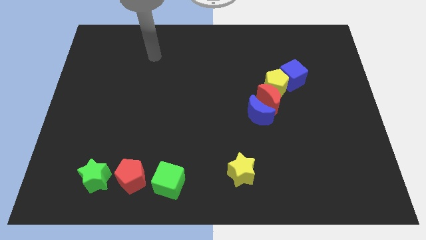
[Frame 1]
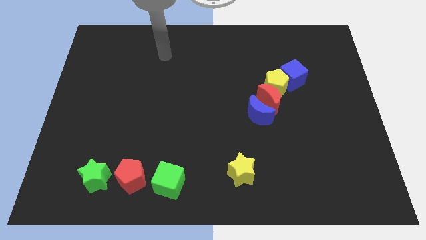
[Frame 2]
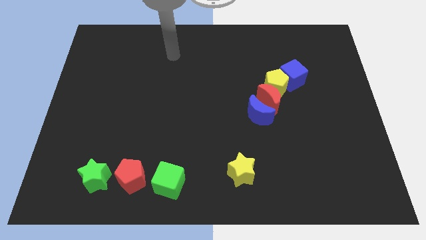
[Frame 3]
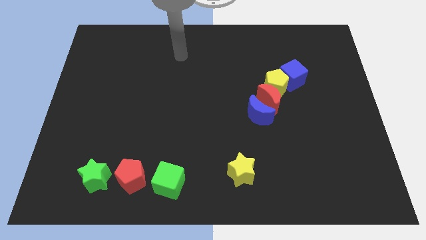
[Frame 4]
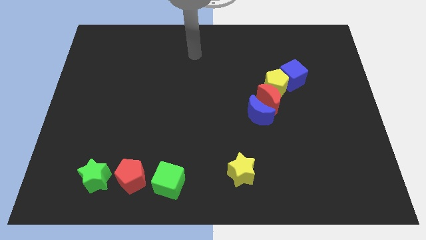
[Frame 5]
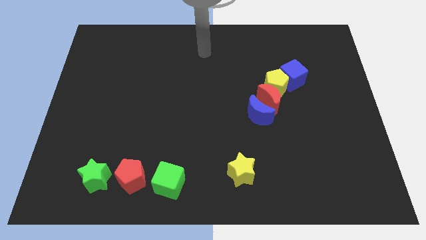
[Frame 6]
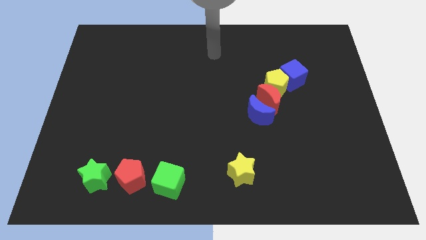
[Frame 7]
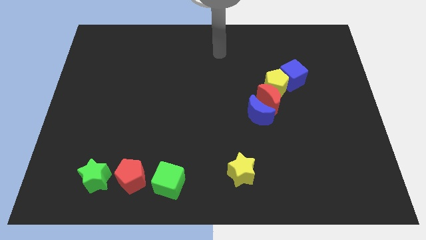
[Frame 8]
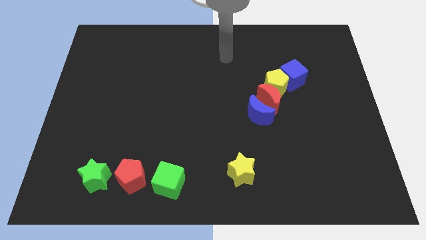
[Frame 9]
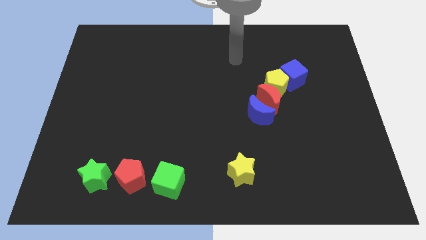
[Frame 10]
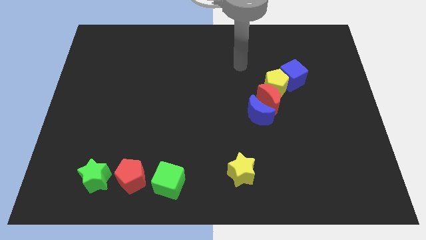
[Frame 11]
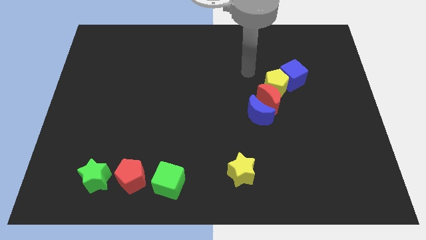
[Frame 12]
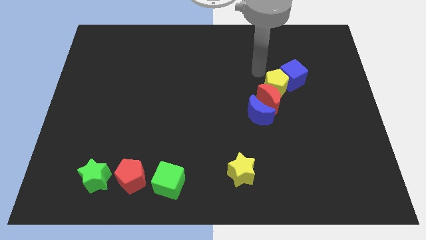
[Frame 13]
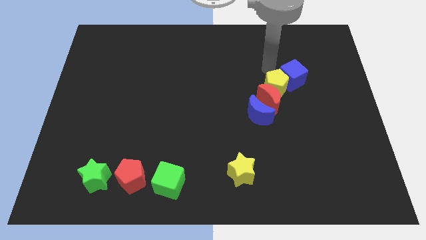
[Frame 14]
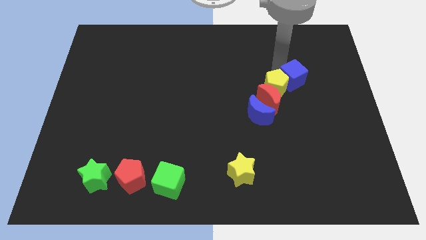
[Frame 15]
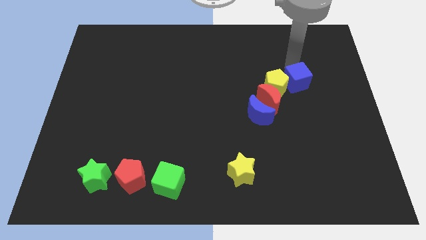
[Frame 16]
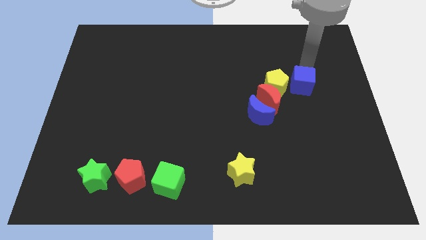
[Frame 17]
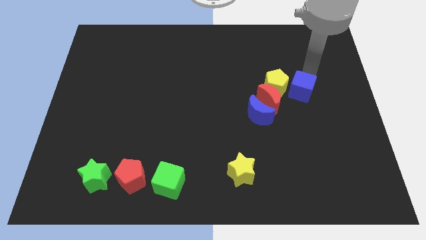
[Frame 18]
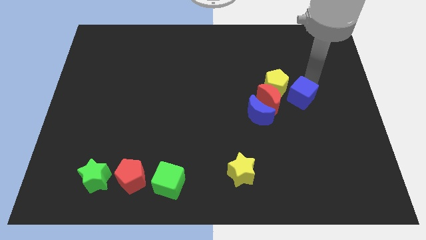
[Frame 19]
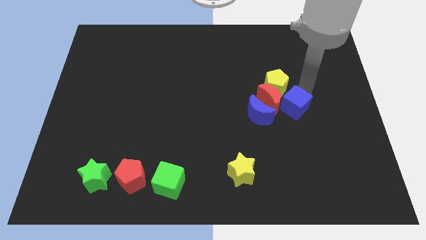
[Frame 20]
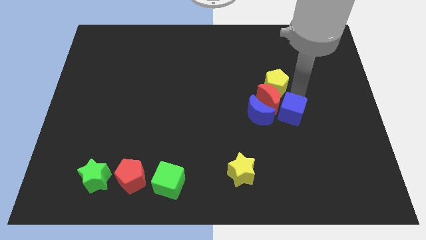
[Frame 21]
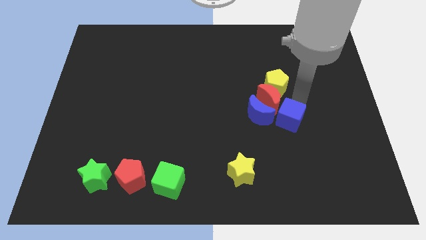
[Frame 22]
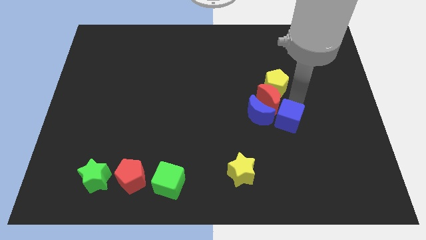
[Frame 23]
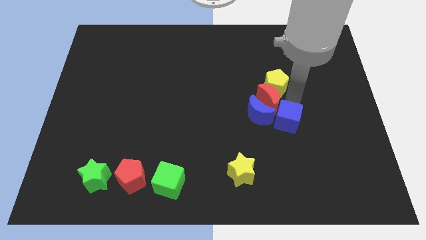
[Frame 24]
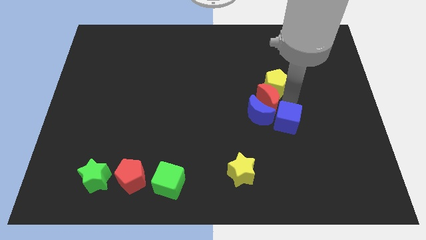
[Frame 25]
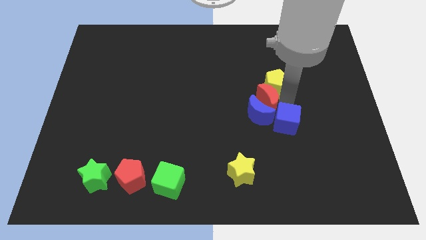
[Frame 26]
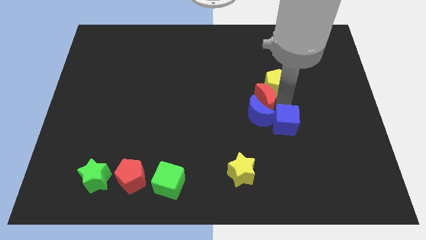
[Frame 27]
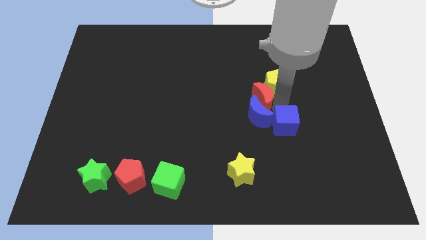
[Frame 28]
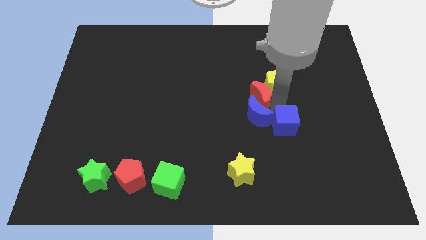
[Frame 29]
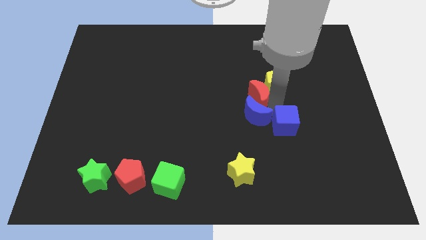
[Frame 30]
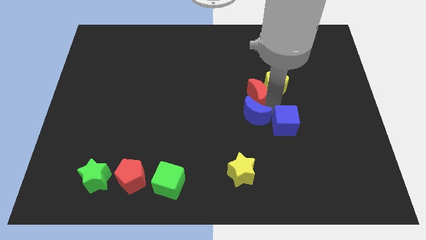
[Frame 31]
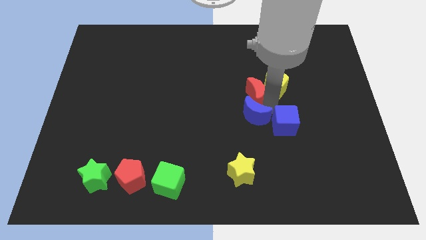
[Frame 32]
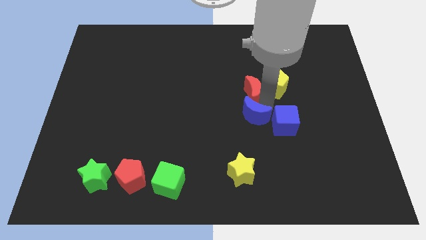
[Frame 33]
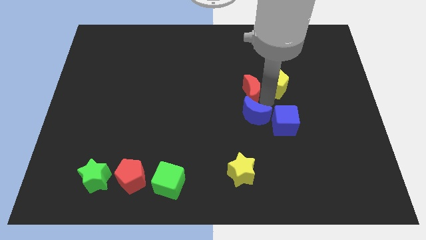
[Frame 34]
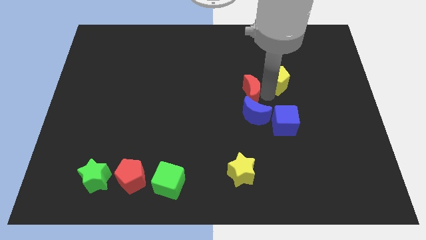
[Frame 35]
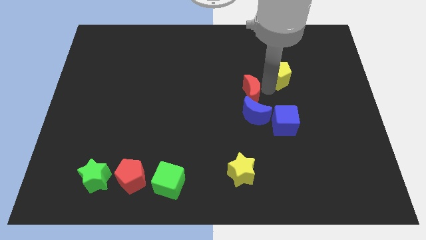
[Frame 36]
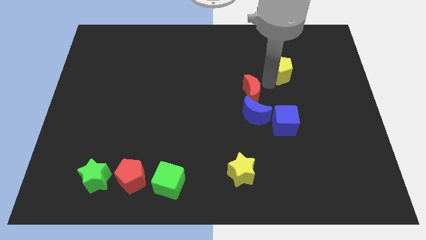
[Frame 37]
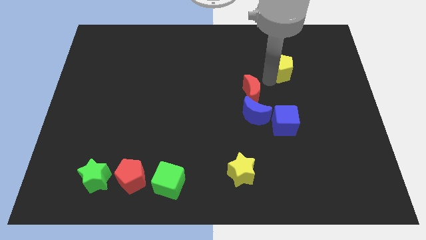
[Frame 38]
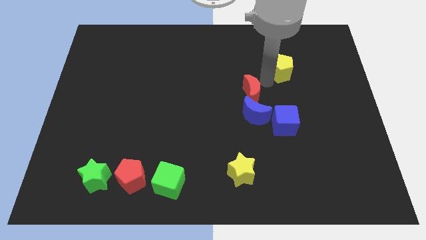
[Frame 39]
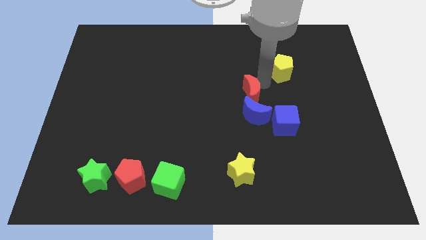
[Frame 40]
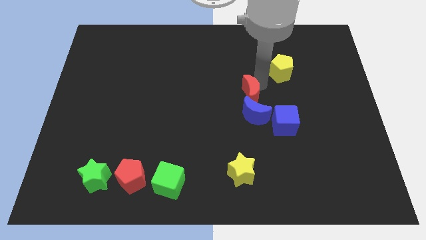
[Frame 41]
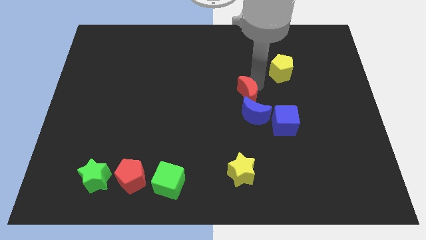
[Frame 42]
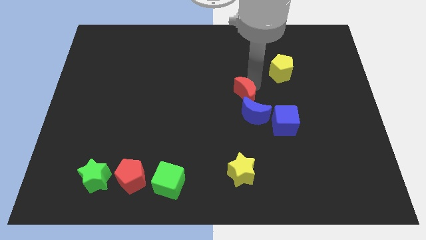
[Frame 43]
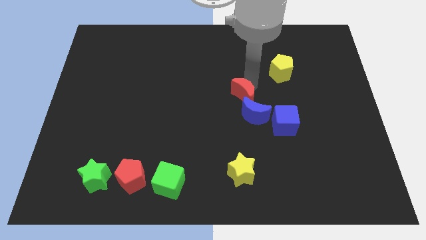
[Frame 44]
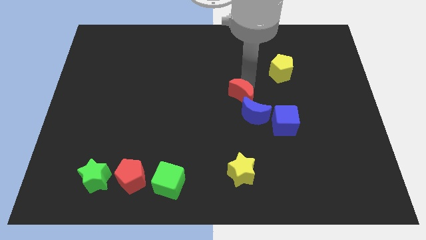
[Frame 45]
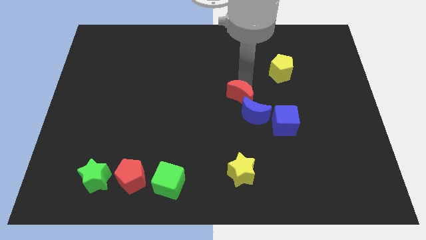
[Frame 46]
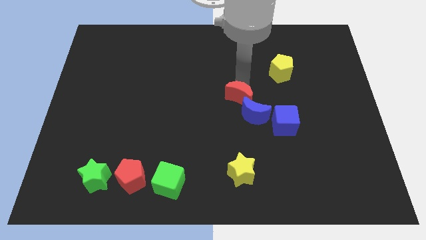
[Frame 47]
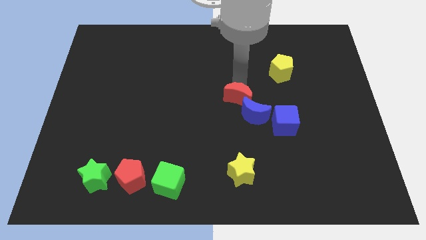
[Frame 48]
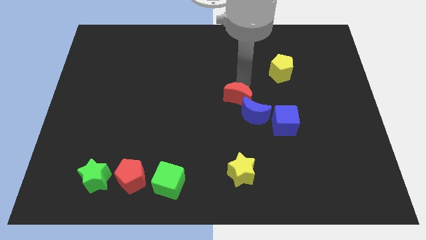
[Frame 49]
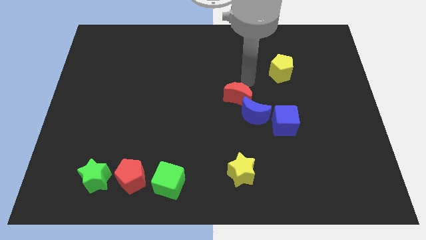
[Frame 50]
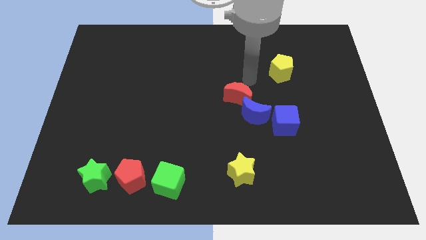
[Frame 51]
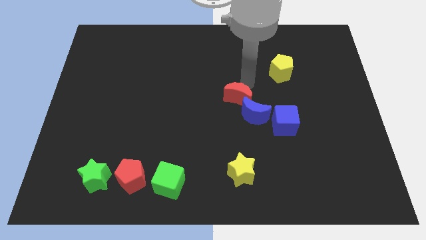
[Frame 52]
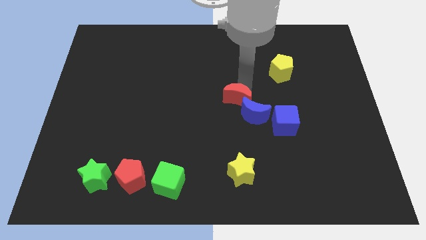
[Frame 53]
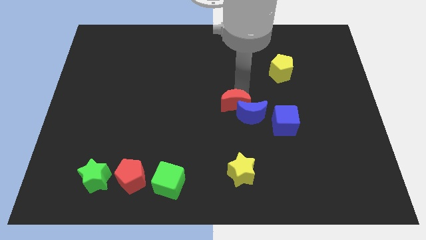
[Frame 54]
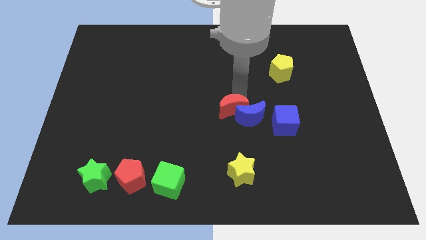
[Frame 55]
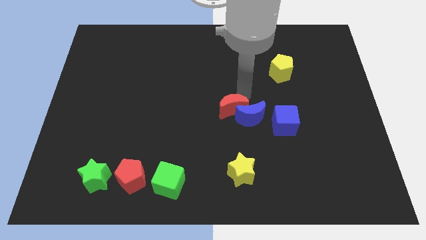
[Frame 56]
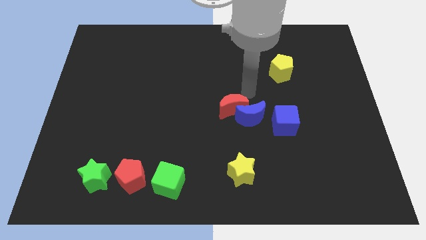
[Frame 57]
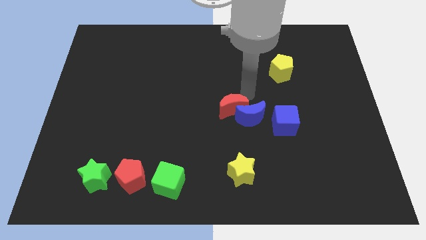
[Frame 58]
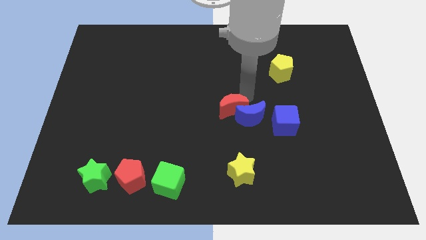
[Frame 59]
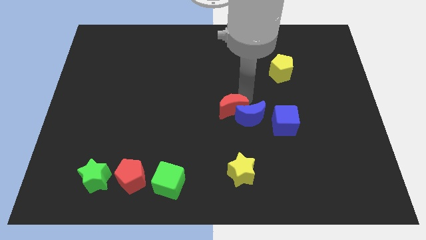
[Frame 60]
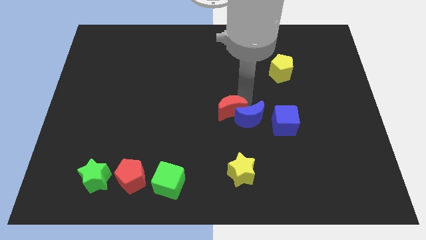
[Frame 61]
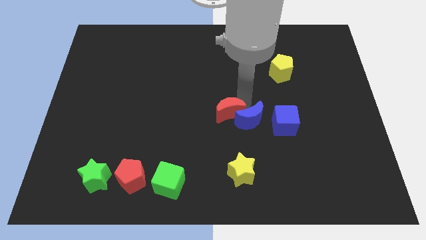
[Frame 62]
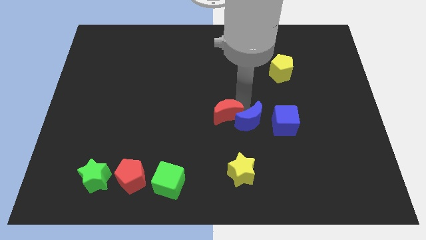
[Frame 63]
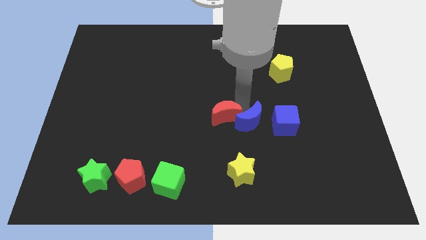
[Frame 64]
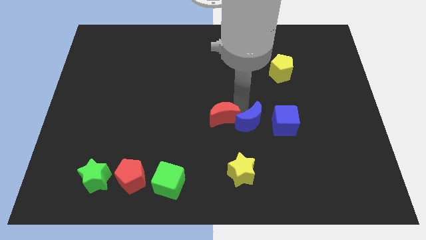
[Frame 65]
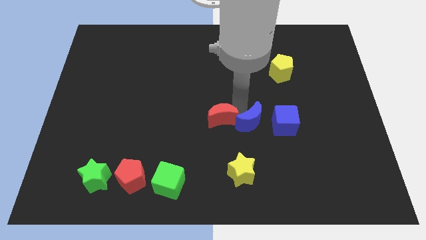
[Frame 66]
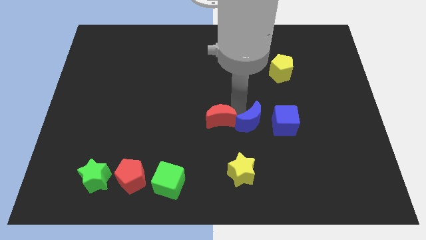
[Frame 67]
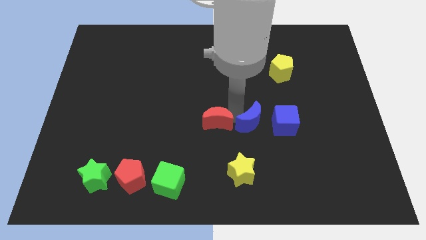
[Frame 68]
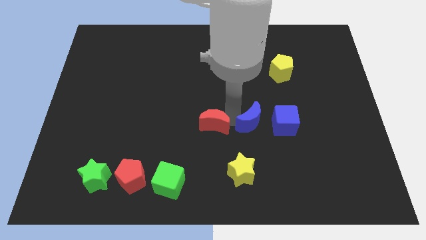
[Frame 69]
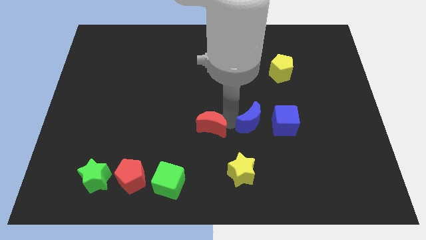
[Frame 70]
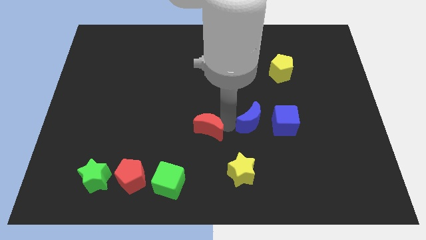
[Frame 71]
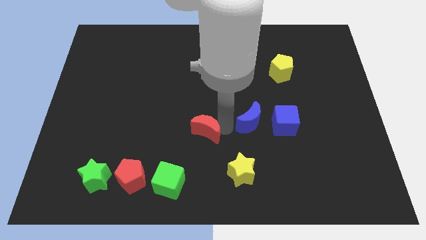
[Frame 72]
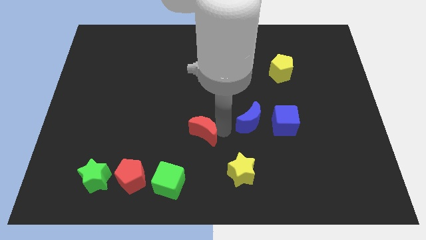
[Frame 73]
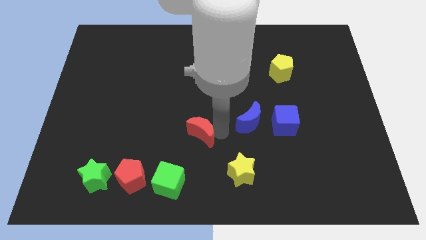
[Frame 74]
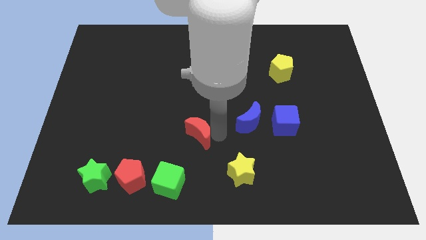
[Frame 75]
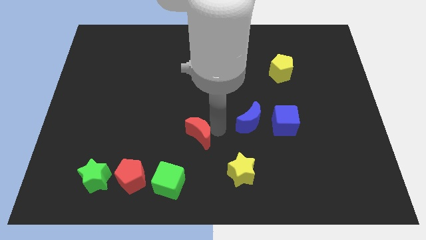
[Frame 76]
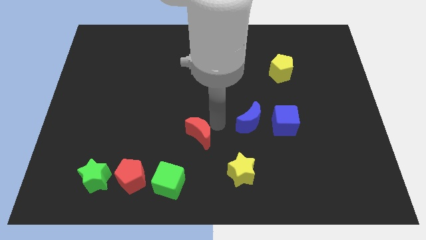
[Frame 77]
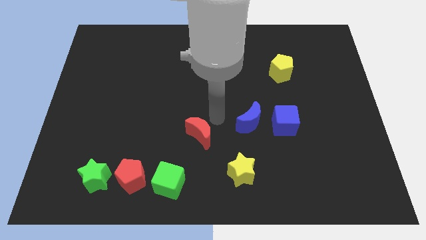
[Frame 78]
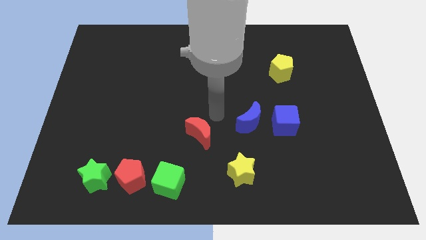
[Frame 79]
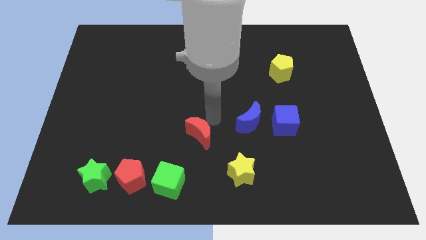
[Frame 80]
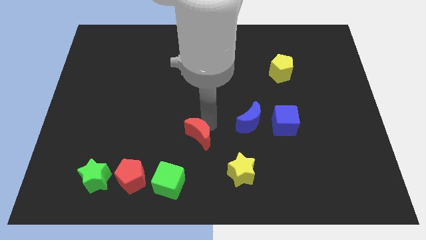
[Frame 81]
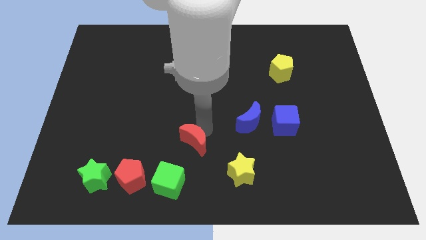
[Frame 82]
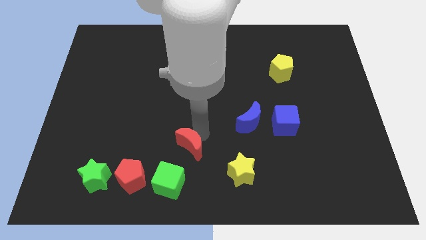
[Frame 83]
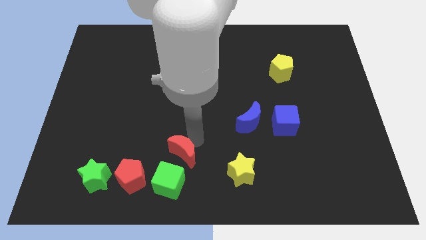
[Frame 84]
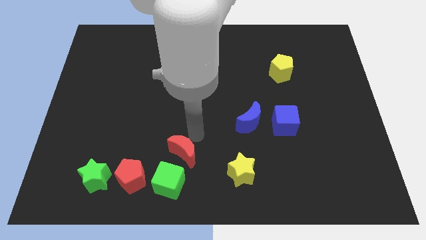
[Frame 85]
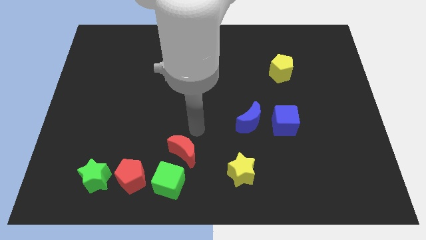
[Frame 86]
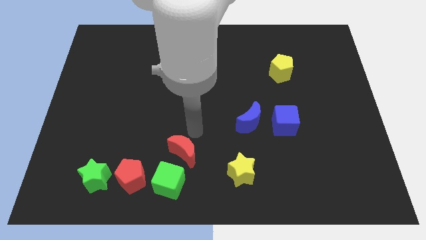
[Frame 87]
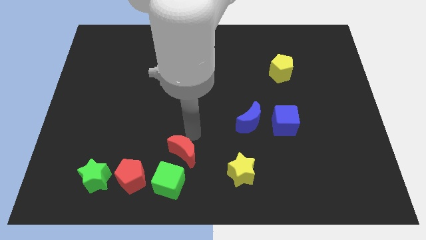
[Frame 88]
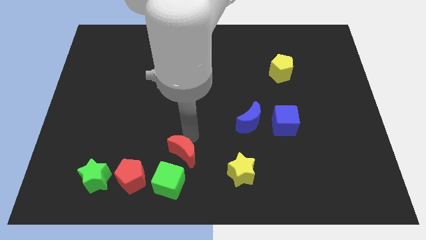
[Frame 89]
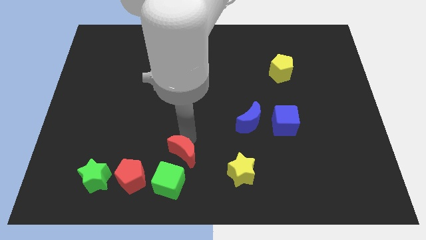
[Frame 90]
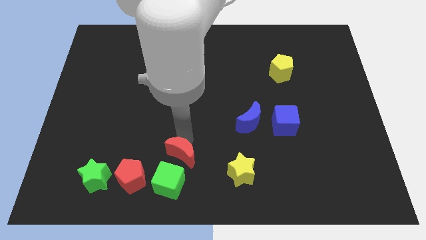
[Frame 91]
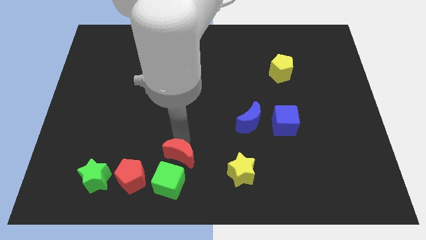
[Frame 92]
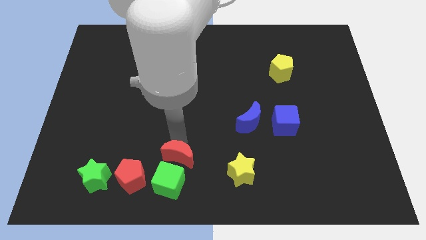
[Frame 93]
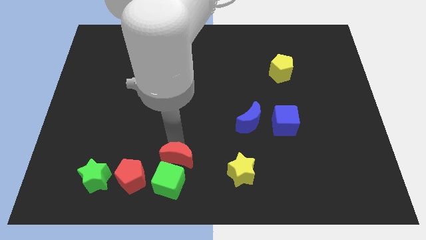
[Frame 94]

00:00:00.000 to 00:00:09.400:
push the red moon towards the green cube
